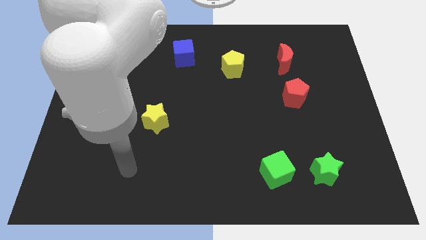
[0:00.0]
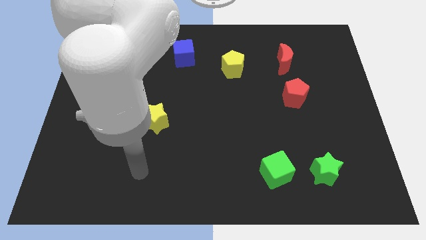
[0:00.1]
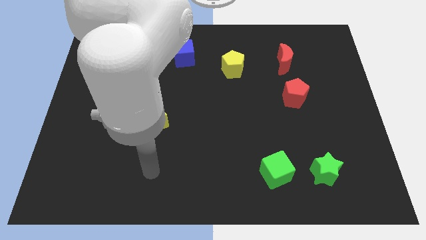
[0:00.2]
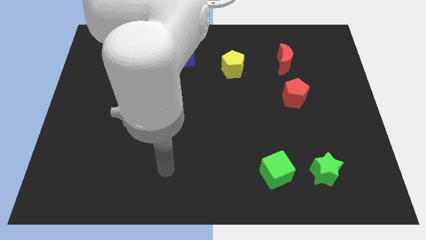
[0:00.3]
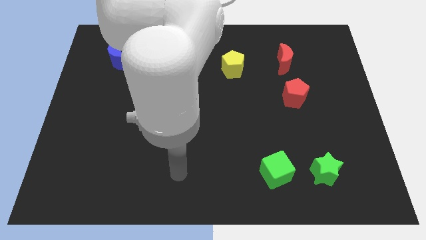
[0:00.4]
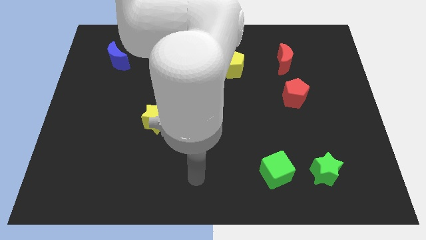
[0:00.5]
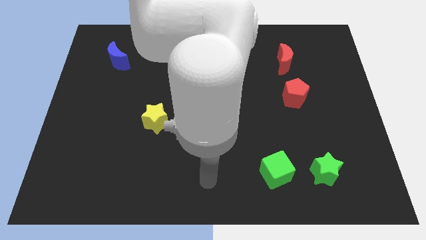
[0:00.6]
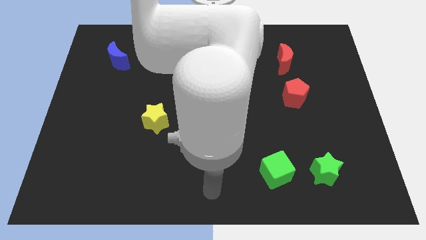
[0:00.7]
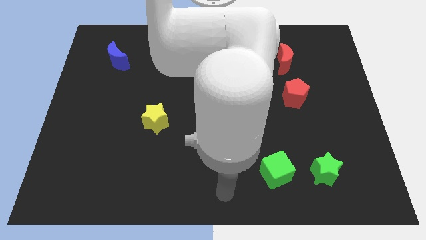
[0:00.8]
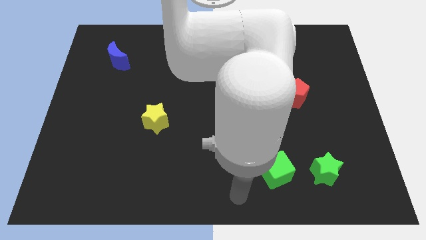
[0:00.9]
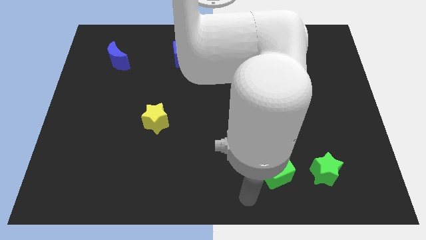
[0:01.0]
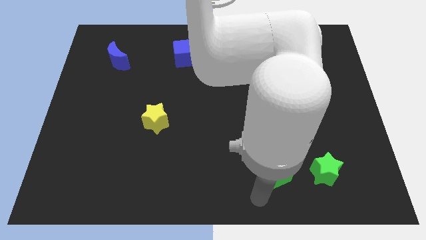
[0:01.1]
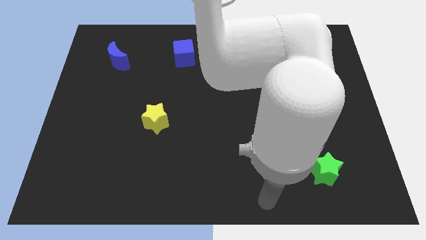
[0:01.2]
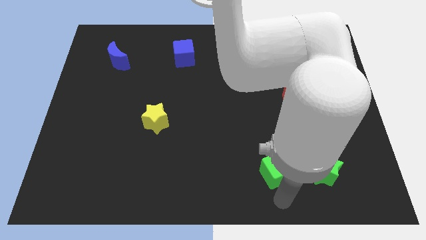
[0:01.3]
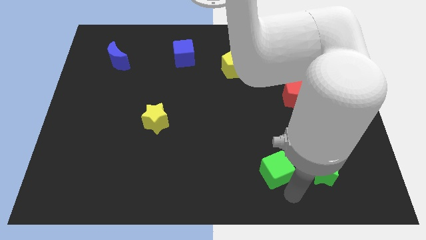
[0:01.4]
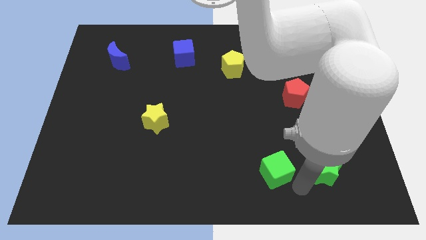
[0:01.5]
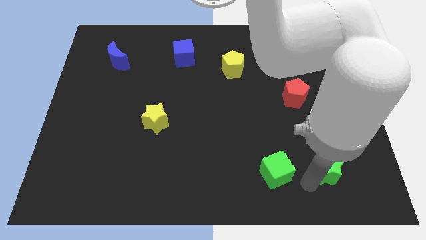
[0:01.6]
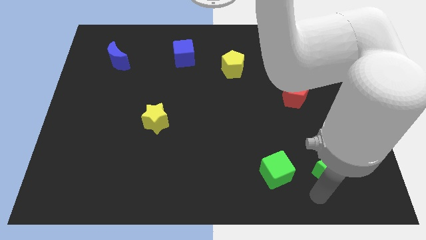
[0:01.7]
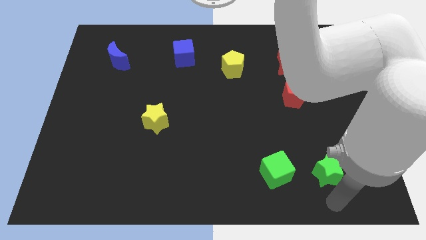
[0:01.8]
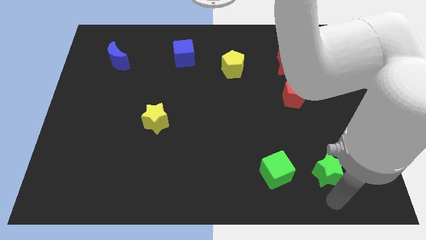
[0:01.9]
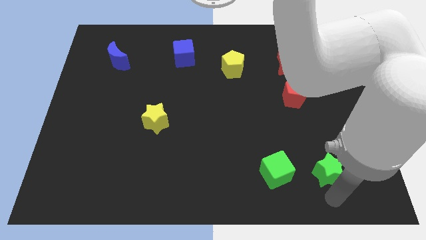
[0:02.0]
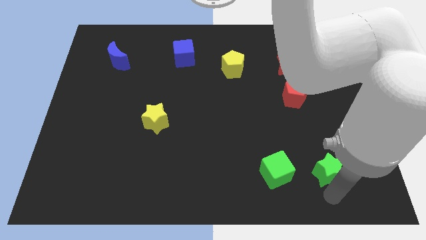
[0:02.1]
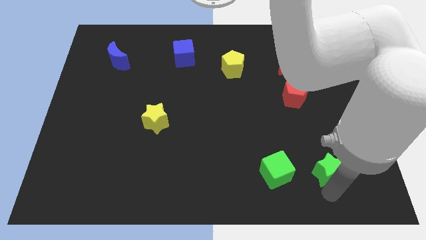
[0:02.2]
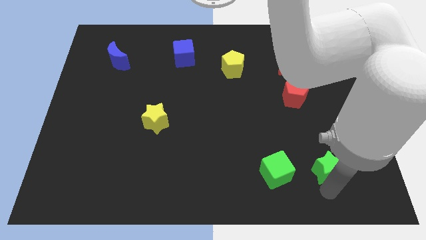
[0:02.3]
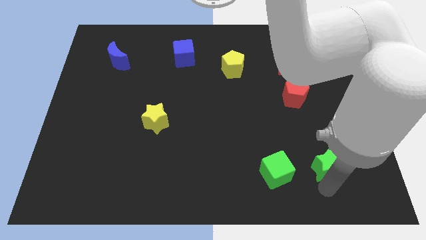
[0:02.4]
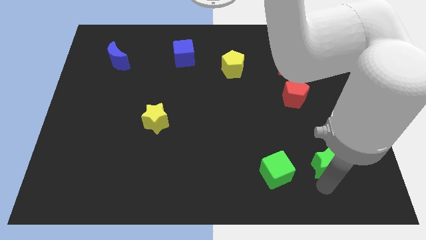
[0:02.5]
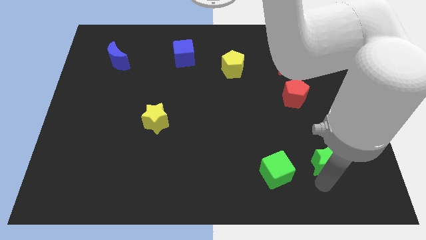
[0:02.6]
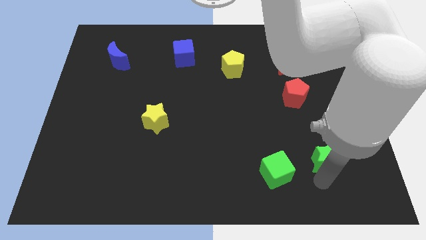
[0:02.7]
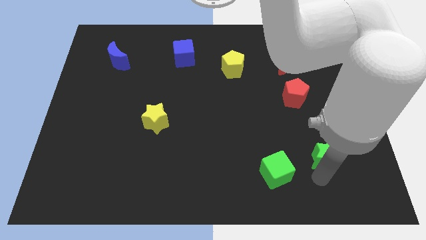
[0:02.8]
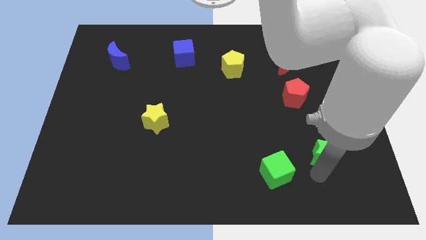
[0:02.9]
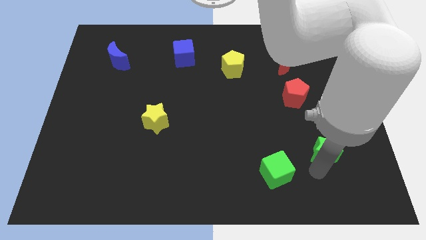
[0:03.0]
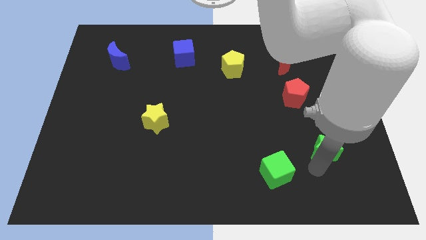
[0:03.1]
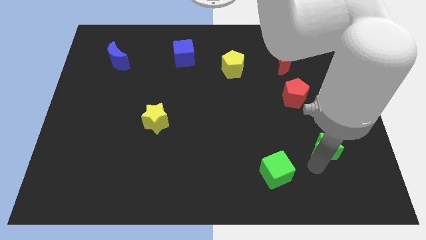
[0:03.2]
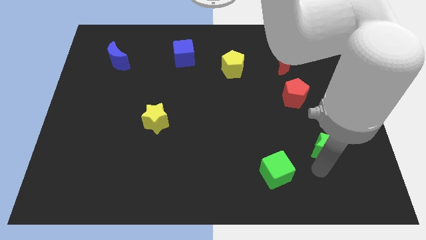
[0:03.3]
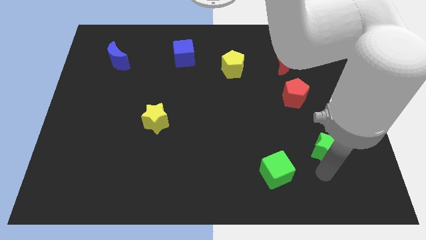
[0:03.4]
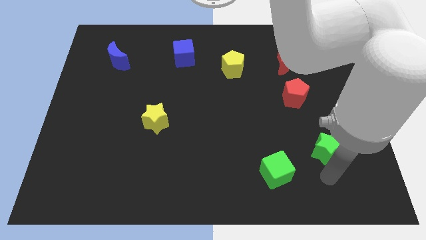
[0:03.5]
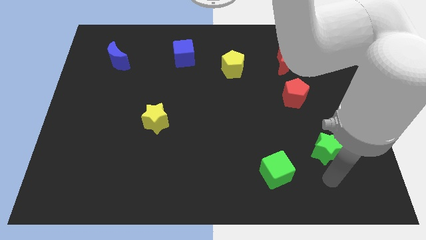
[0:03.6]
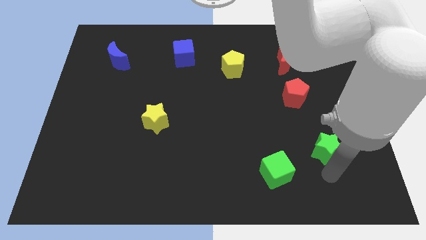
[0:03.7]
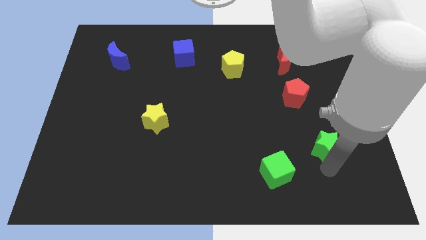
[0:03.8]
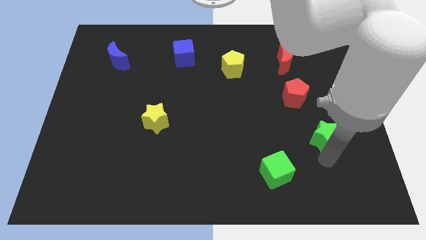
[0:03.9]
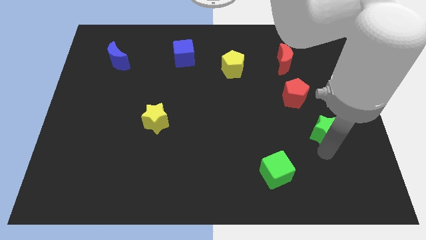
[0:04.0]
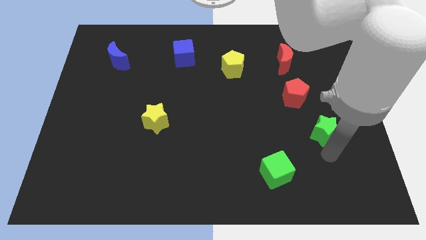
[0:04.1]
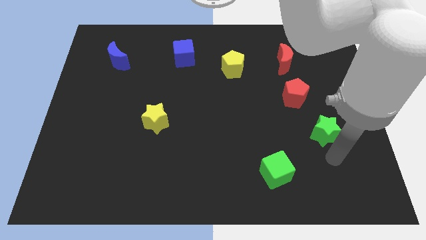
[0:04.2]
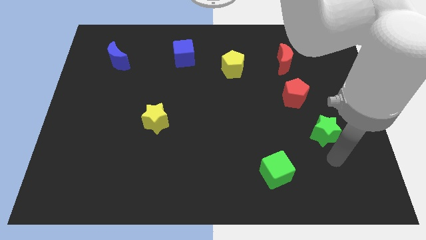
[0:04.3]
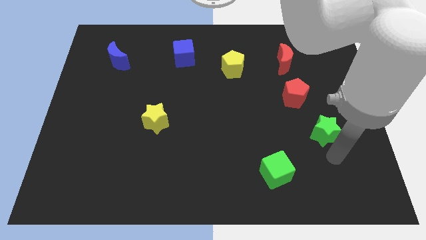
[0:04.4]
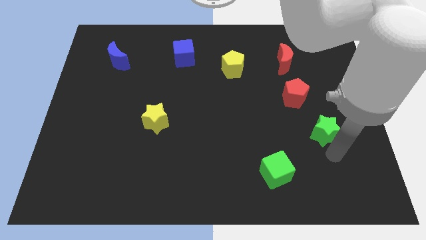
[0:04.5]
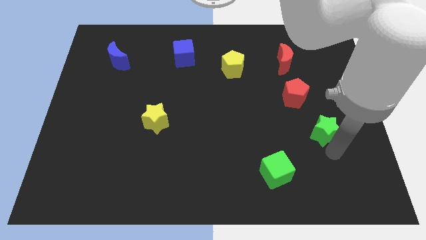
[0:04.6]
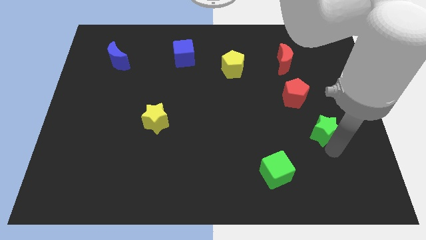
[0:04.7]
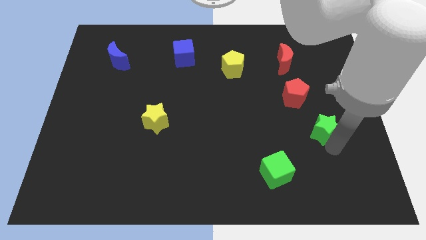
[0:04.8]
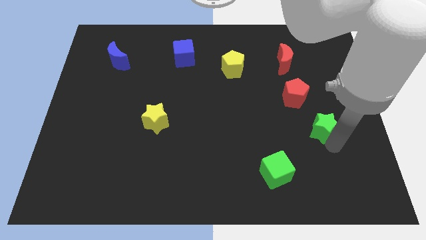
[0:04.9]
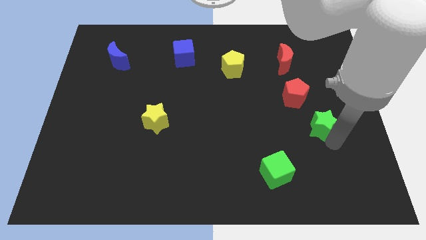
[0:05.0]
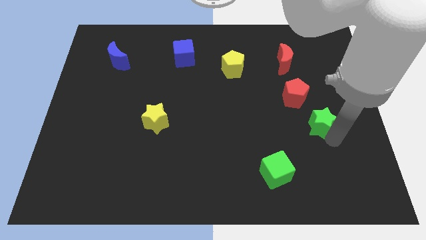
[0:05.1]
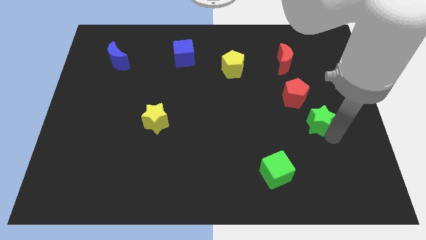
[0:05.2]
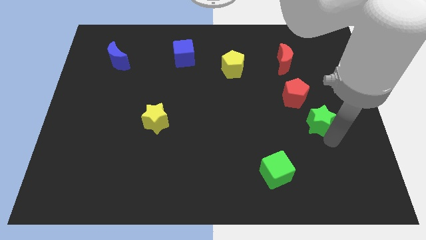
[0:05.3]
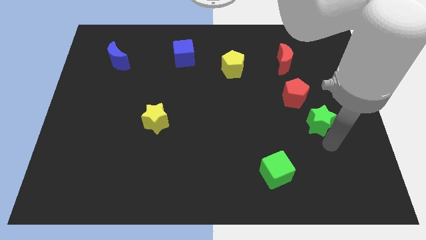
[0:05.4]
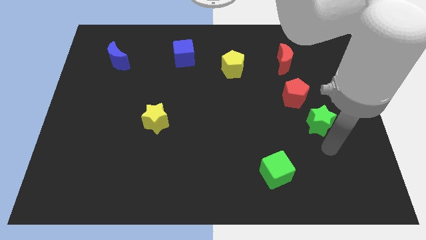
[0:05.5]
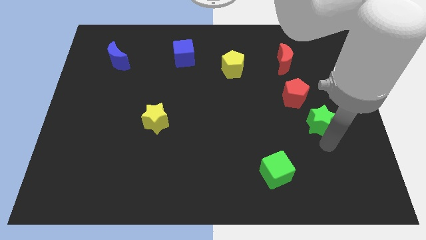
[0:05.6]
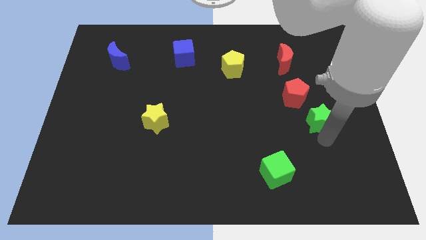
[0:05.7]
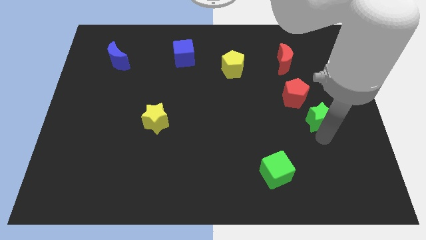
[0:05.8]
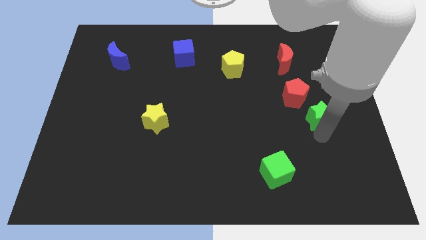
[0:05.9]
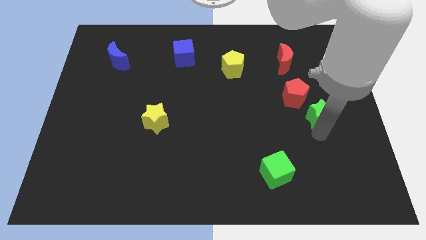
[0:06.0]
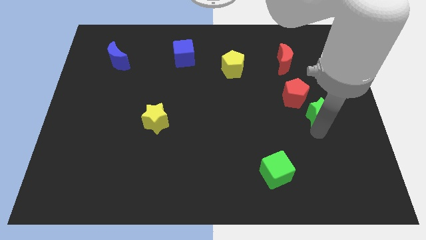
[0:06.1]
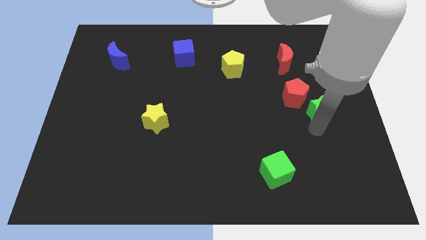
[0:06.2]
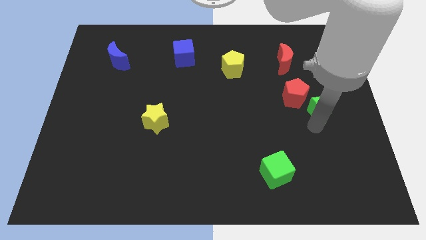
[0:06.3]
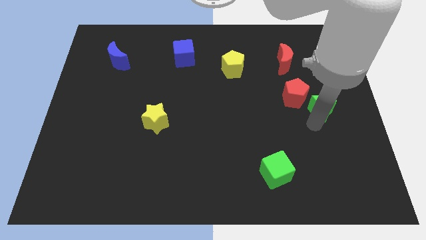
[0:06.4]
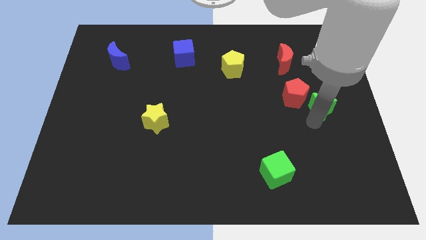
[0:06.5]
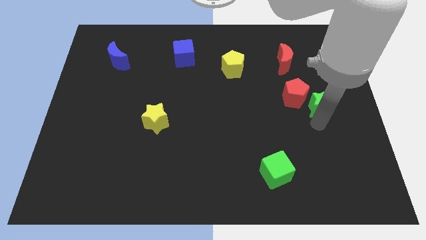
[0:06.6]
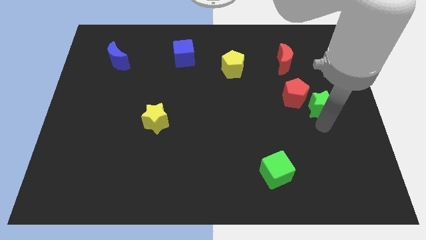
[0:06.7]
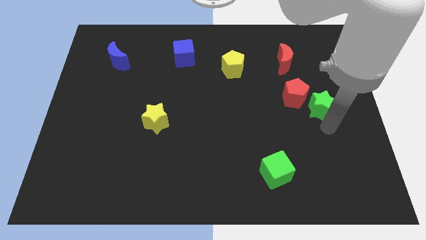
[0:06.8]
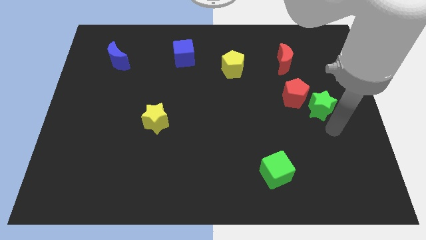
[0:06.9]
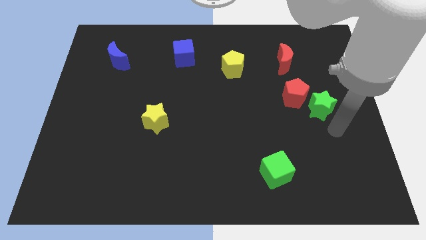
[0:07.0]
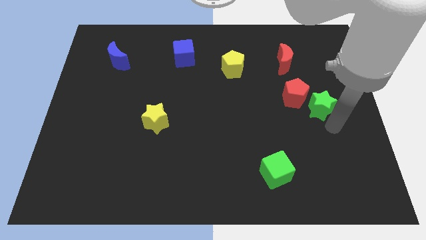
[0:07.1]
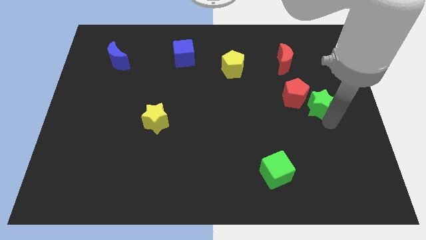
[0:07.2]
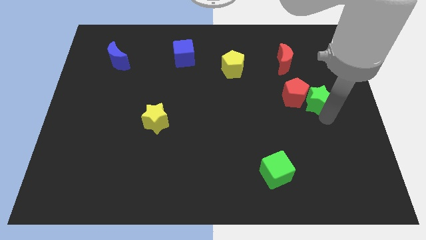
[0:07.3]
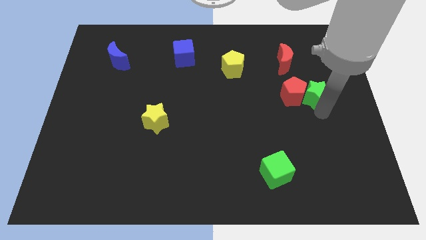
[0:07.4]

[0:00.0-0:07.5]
put the green star diagonally up and to the right of the red pentagon
